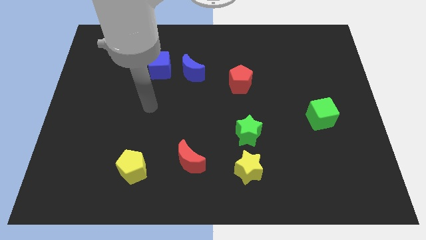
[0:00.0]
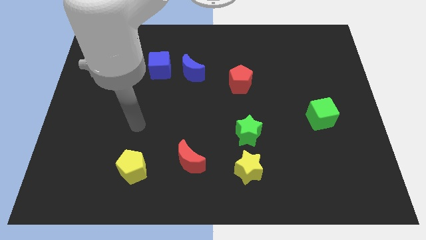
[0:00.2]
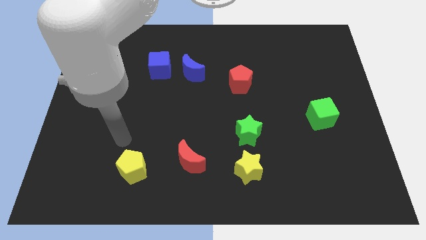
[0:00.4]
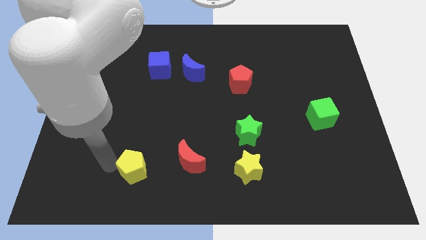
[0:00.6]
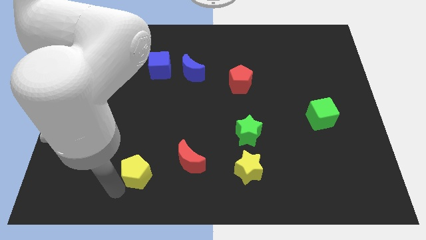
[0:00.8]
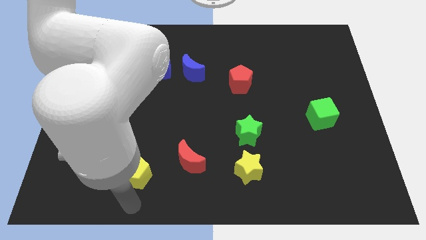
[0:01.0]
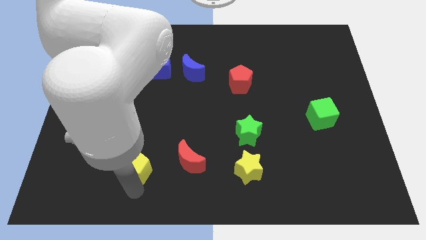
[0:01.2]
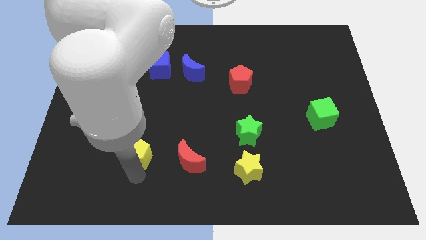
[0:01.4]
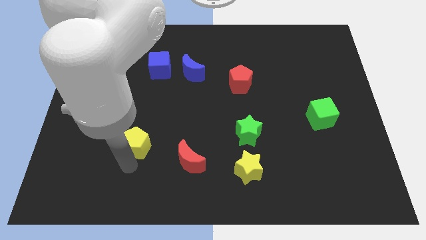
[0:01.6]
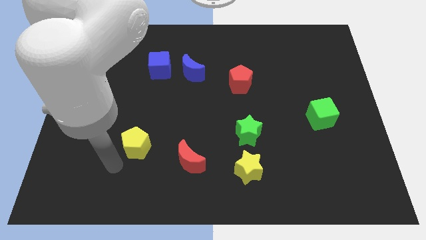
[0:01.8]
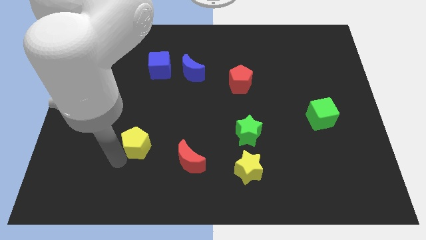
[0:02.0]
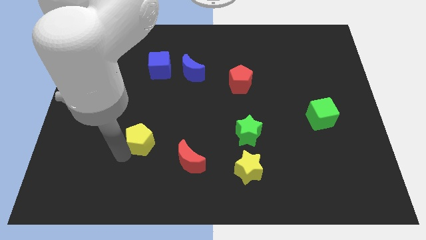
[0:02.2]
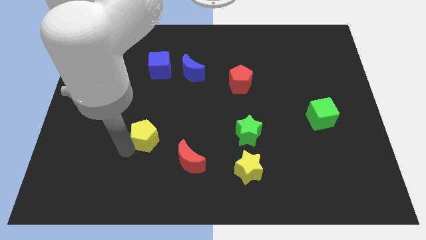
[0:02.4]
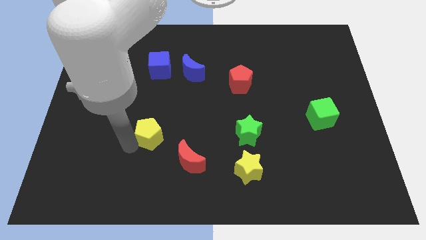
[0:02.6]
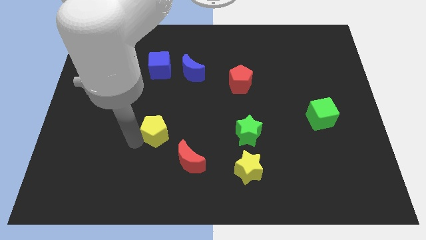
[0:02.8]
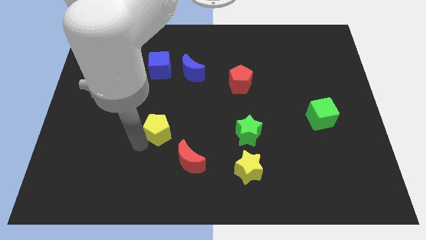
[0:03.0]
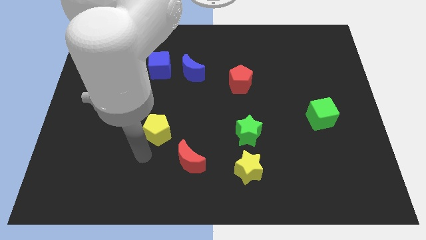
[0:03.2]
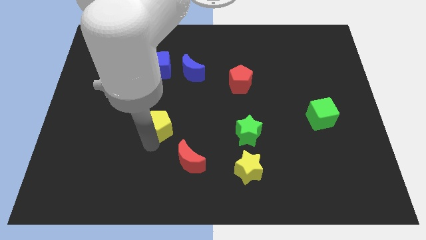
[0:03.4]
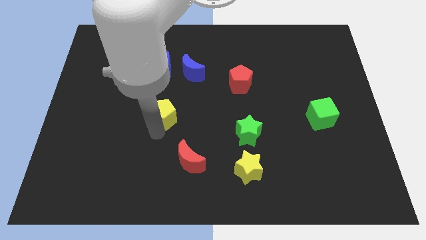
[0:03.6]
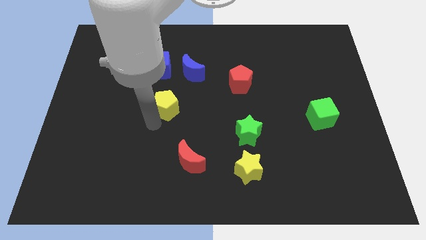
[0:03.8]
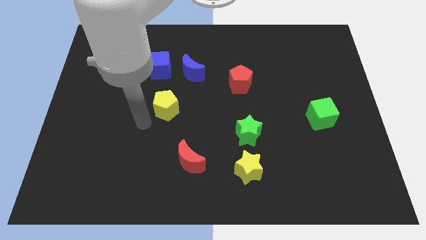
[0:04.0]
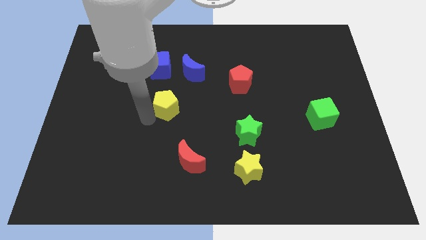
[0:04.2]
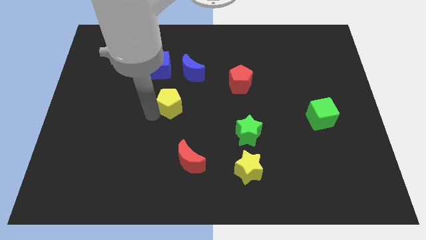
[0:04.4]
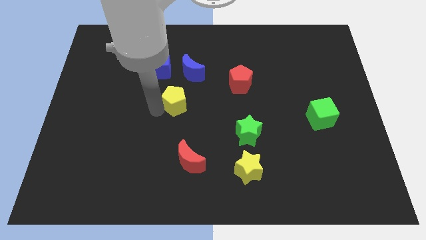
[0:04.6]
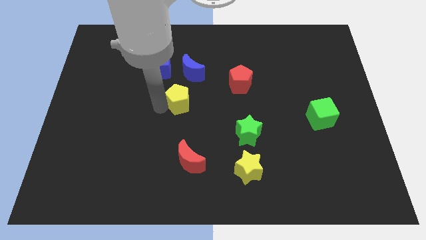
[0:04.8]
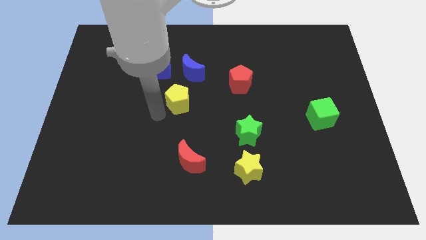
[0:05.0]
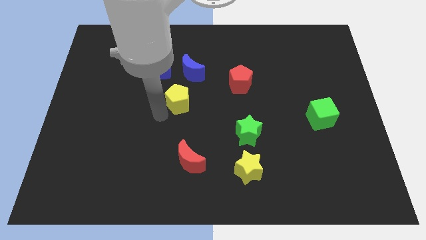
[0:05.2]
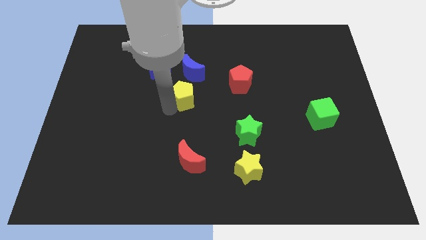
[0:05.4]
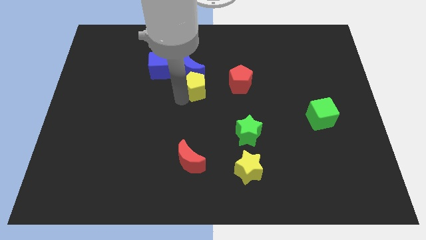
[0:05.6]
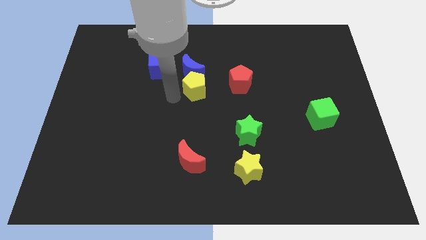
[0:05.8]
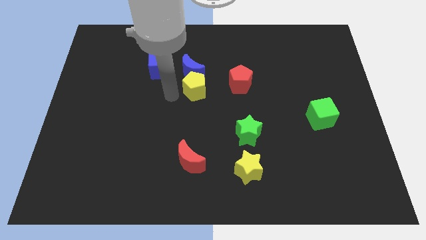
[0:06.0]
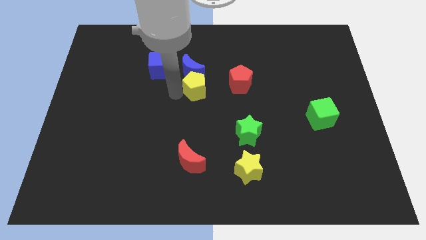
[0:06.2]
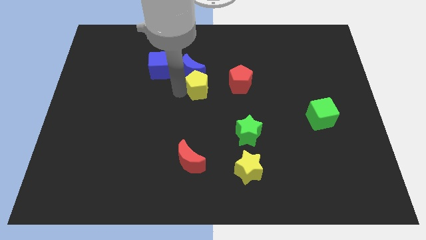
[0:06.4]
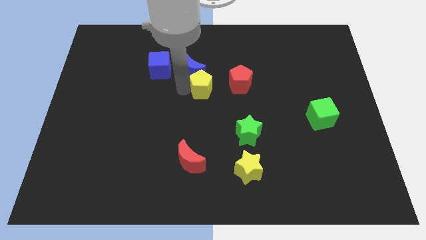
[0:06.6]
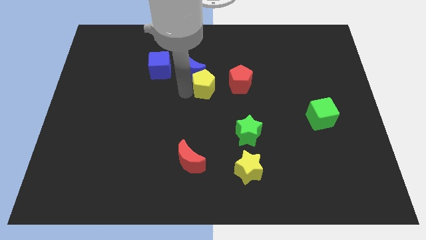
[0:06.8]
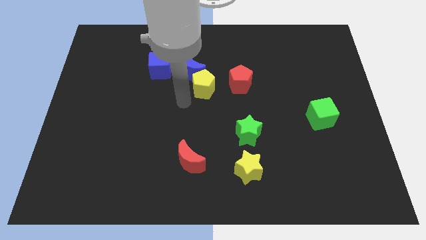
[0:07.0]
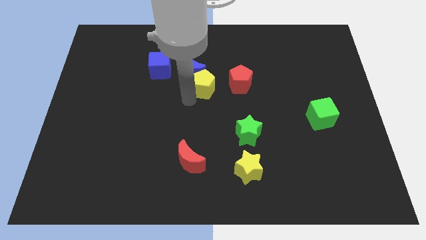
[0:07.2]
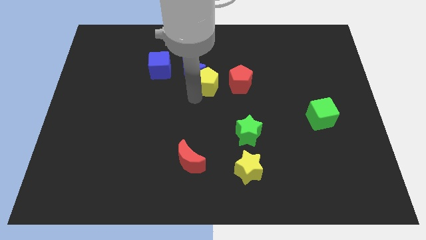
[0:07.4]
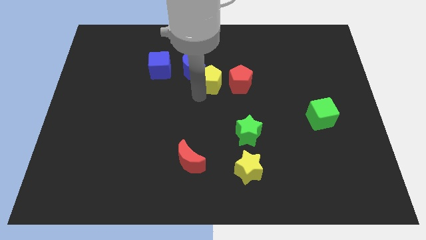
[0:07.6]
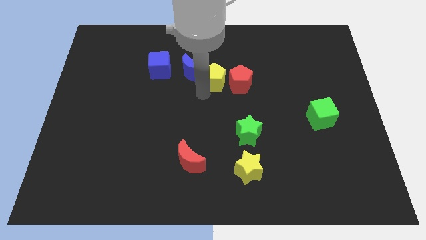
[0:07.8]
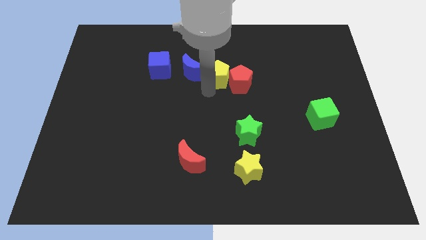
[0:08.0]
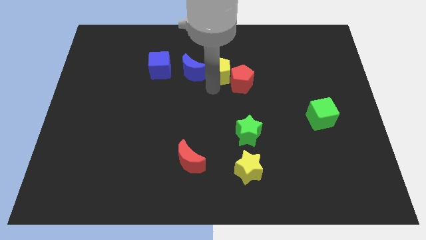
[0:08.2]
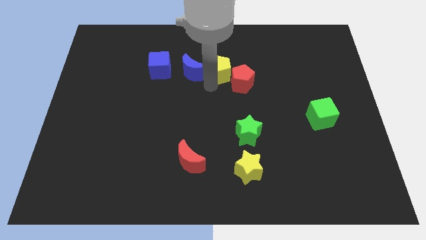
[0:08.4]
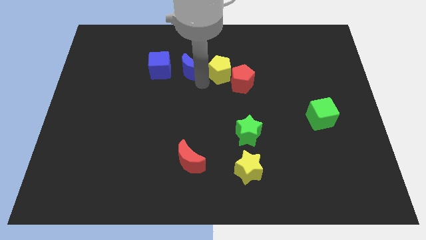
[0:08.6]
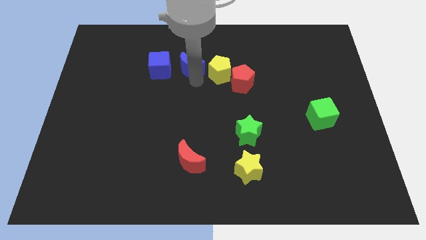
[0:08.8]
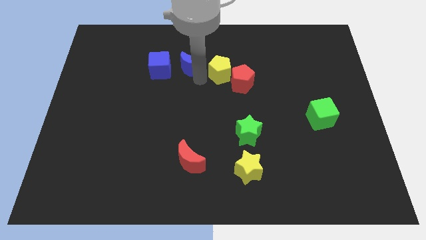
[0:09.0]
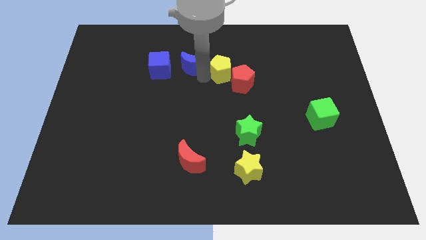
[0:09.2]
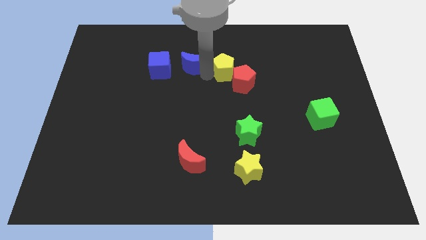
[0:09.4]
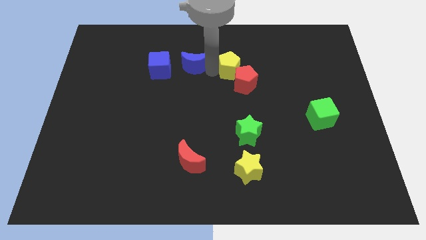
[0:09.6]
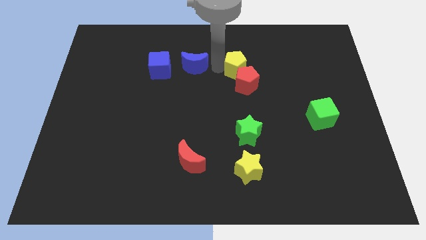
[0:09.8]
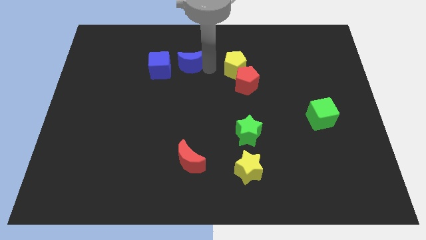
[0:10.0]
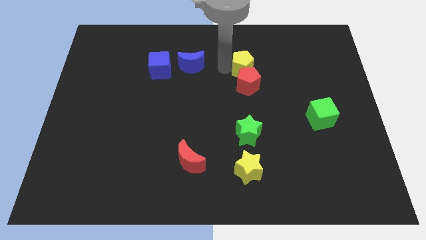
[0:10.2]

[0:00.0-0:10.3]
push the yellow pentagon to the top right side of the red pentagon

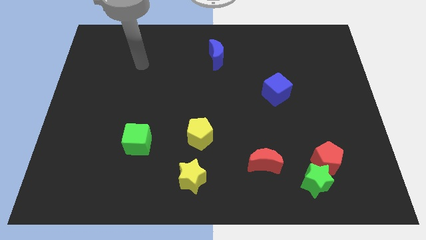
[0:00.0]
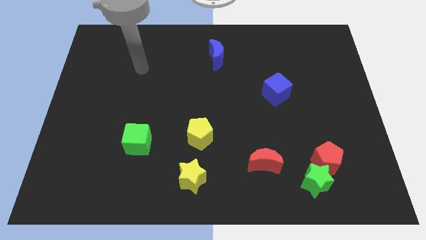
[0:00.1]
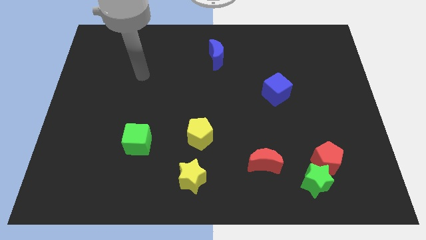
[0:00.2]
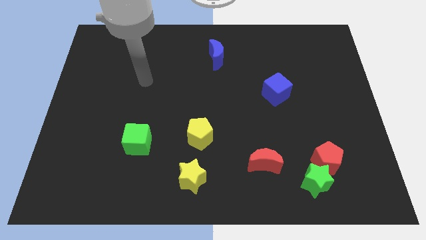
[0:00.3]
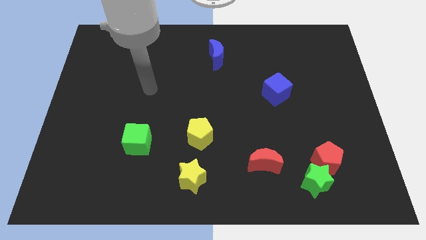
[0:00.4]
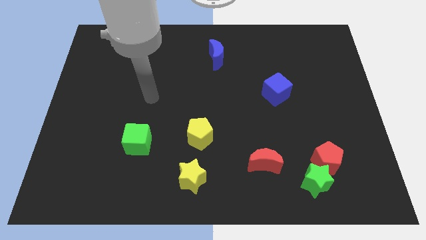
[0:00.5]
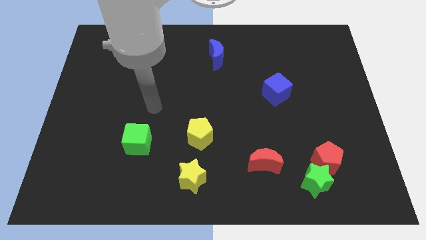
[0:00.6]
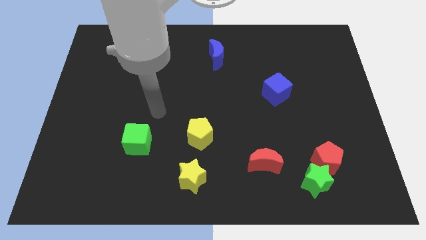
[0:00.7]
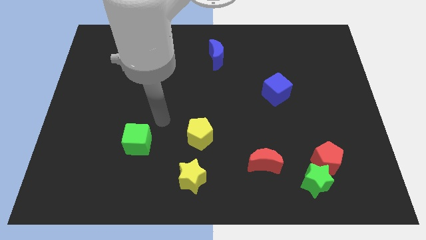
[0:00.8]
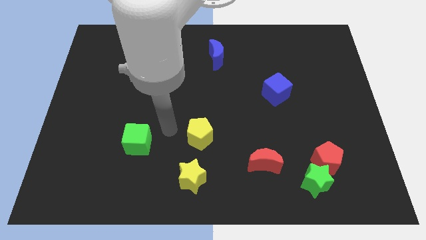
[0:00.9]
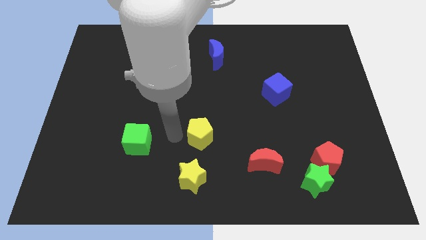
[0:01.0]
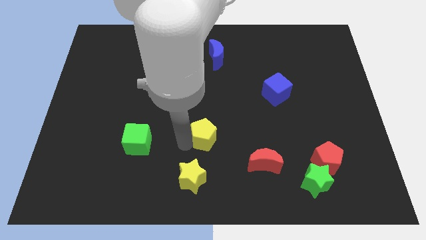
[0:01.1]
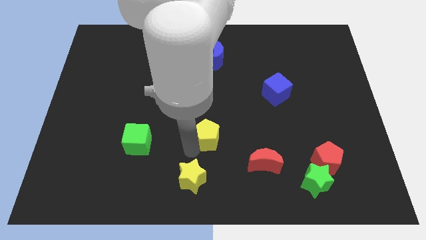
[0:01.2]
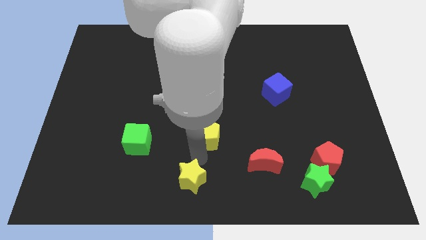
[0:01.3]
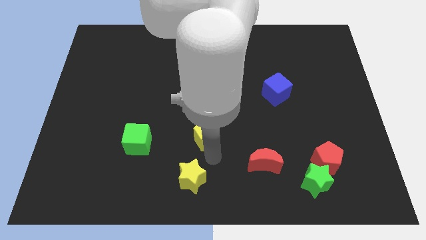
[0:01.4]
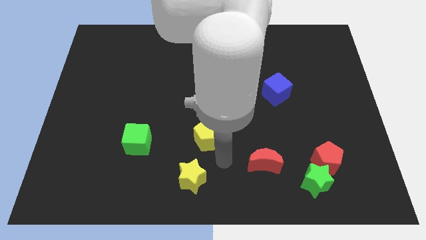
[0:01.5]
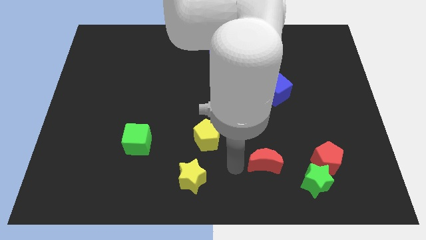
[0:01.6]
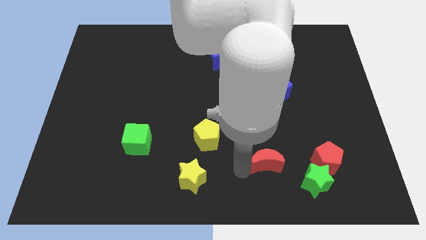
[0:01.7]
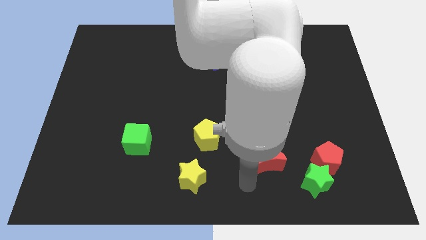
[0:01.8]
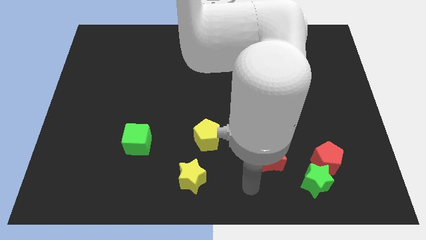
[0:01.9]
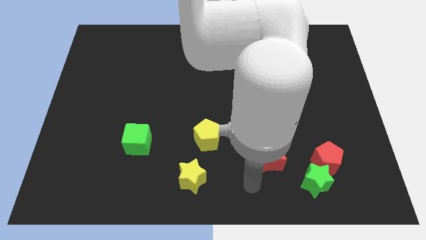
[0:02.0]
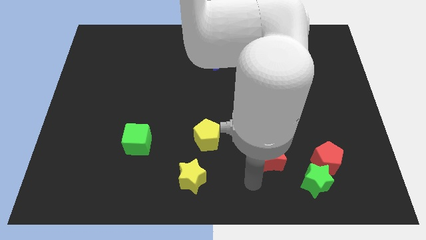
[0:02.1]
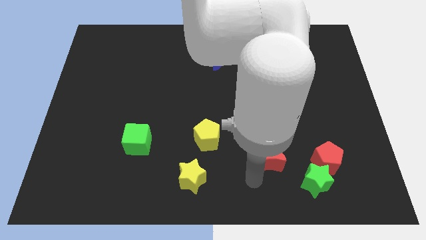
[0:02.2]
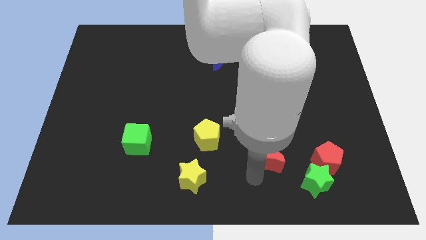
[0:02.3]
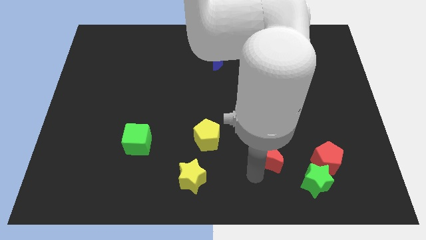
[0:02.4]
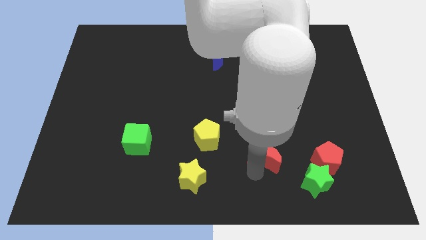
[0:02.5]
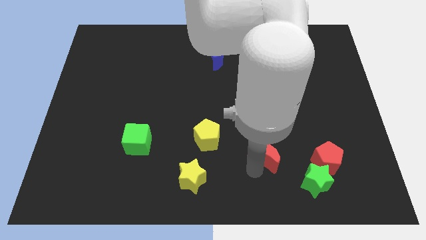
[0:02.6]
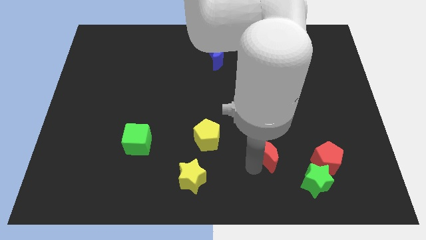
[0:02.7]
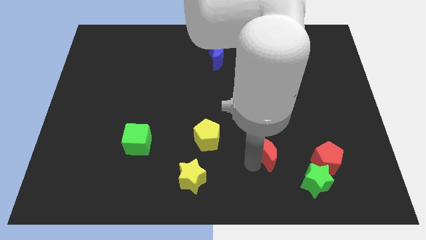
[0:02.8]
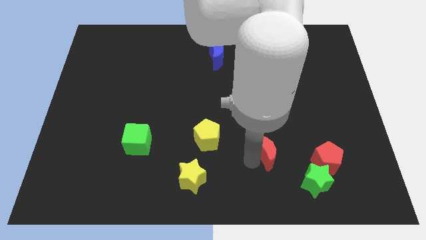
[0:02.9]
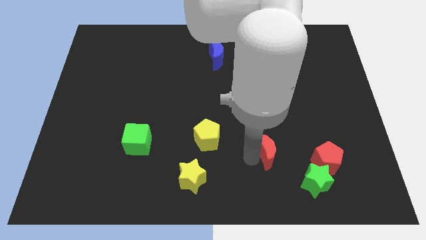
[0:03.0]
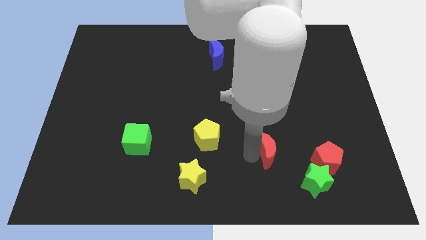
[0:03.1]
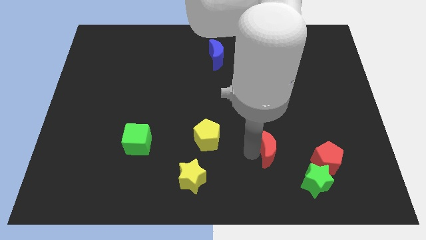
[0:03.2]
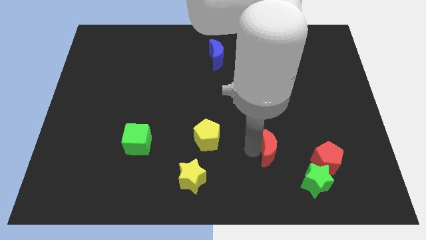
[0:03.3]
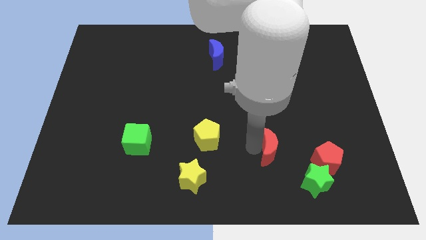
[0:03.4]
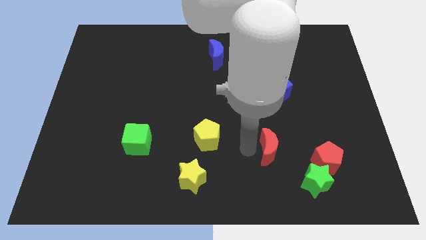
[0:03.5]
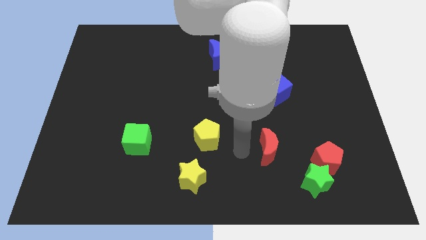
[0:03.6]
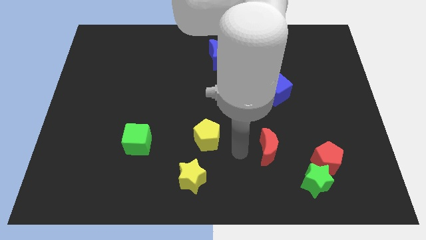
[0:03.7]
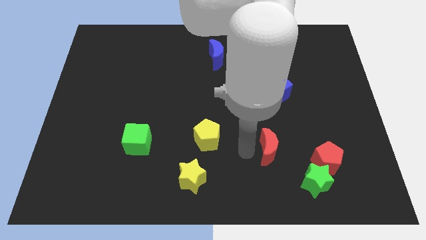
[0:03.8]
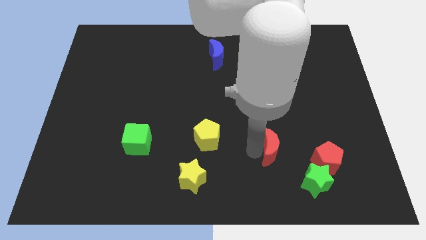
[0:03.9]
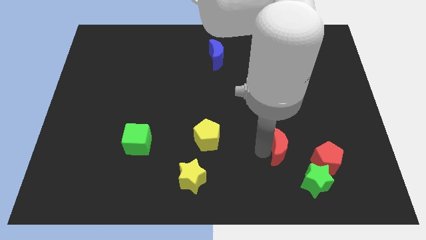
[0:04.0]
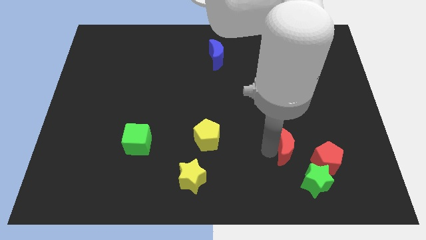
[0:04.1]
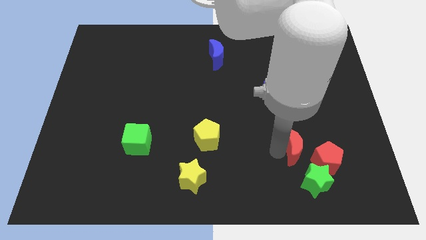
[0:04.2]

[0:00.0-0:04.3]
put the red moon above the green star
